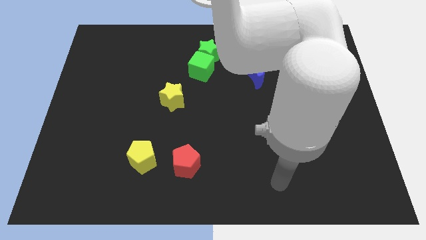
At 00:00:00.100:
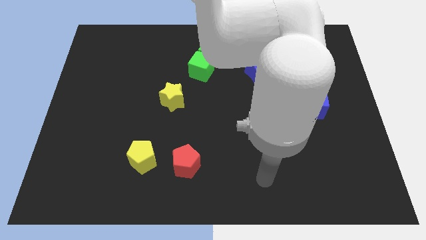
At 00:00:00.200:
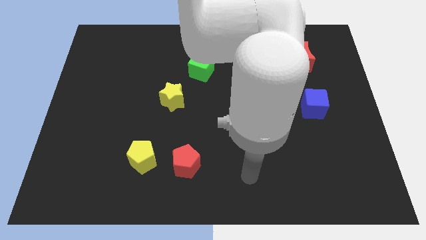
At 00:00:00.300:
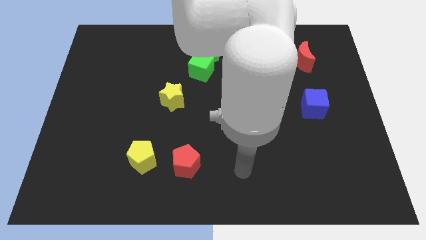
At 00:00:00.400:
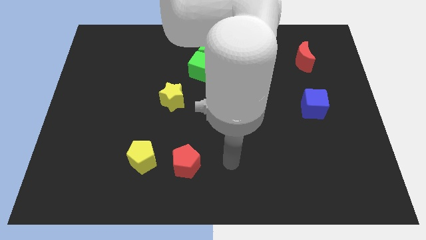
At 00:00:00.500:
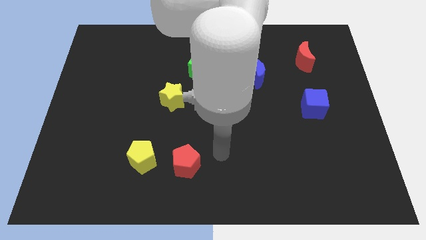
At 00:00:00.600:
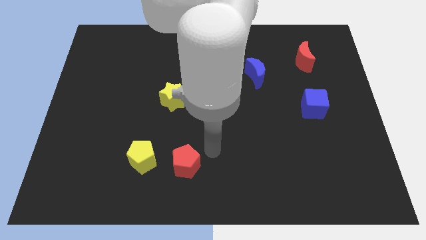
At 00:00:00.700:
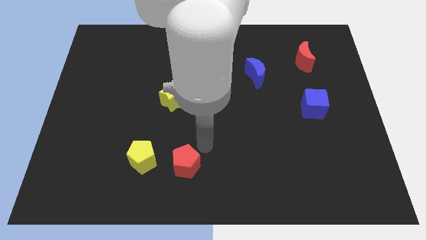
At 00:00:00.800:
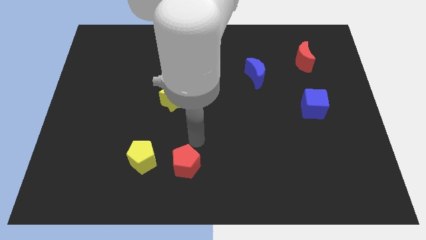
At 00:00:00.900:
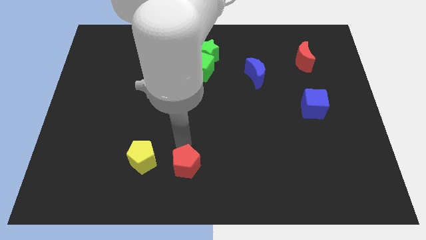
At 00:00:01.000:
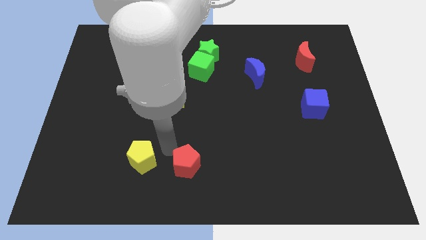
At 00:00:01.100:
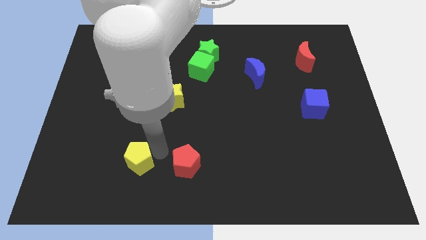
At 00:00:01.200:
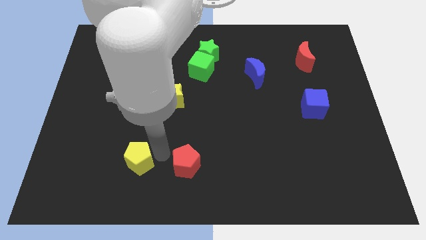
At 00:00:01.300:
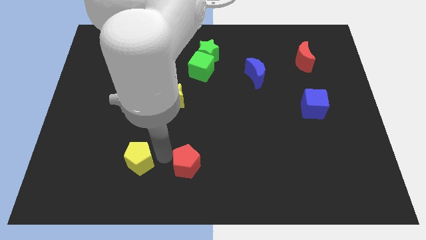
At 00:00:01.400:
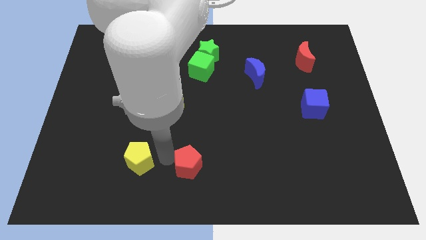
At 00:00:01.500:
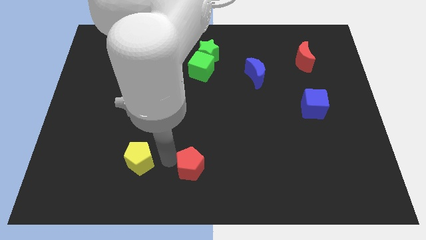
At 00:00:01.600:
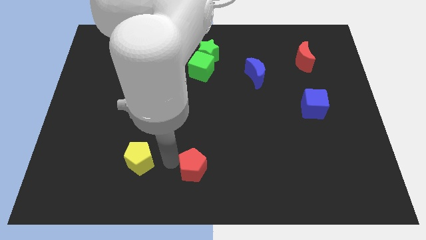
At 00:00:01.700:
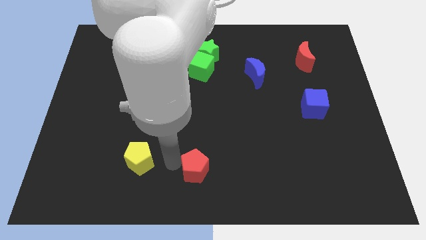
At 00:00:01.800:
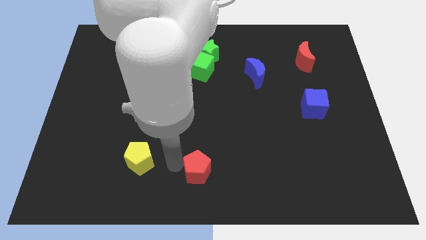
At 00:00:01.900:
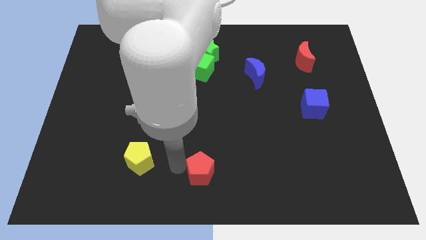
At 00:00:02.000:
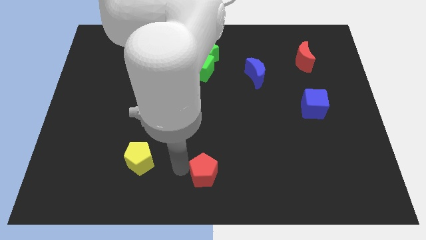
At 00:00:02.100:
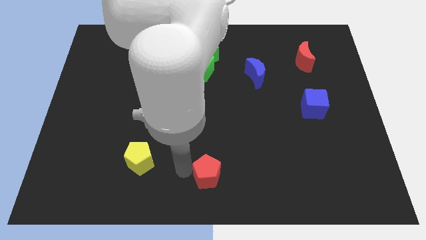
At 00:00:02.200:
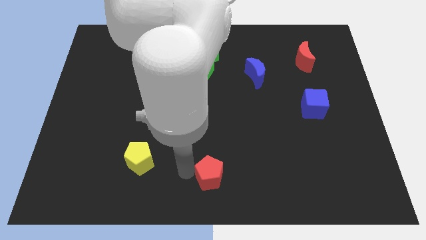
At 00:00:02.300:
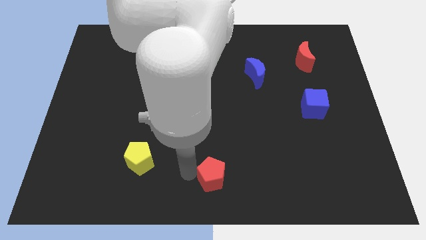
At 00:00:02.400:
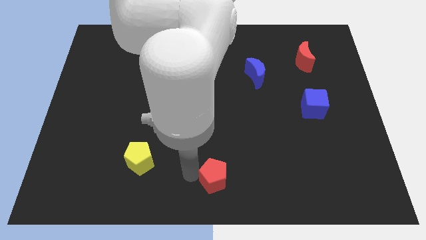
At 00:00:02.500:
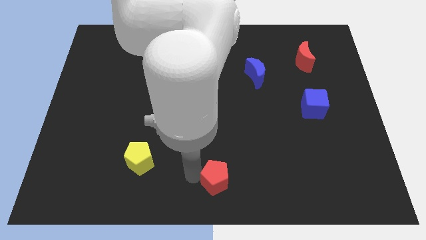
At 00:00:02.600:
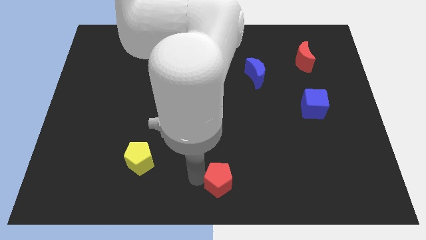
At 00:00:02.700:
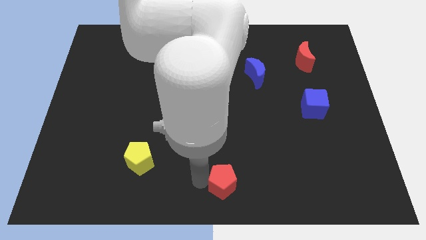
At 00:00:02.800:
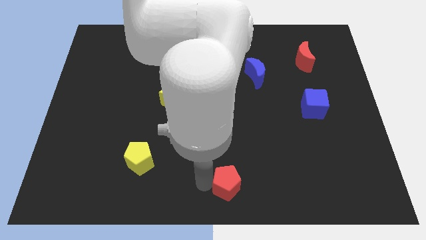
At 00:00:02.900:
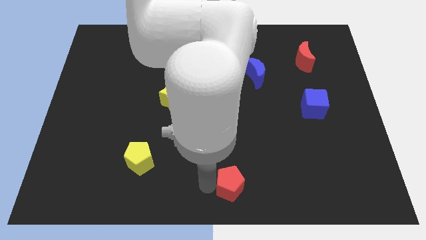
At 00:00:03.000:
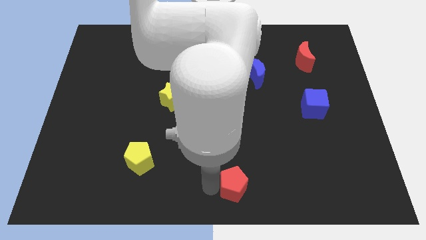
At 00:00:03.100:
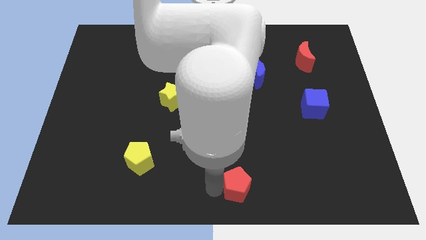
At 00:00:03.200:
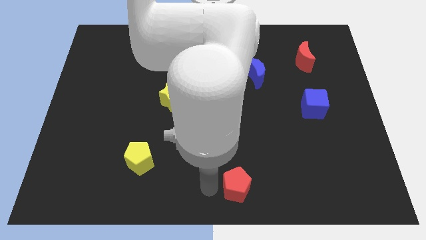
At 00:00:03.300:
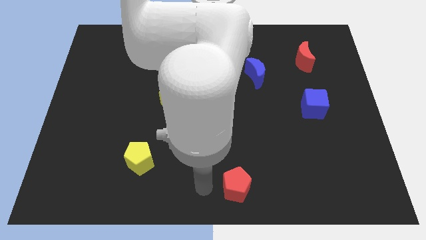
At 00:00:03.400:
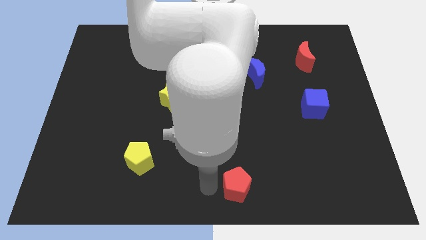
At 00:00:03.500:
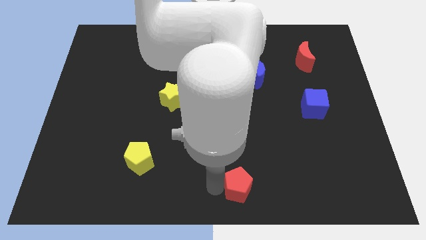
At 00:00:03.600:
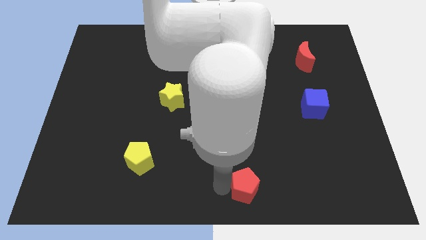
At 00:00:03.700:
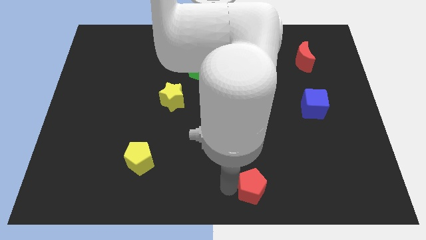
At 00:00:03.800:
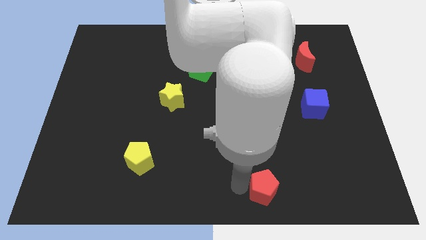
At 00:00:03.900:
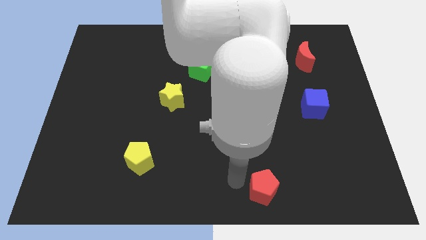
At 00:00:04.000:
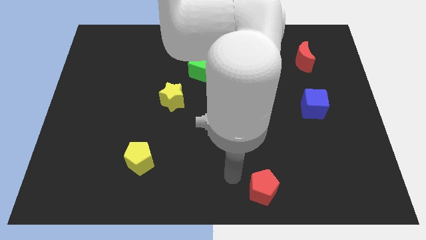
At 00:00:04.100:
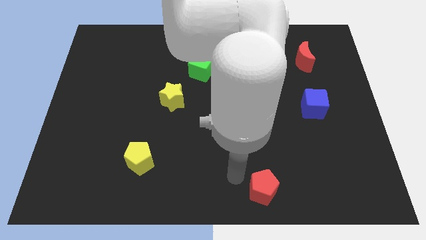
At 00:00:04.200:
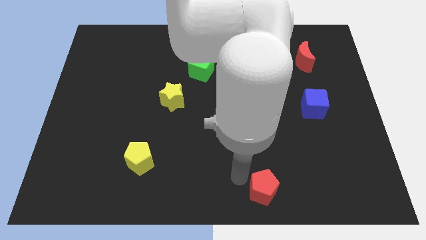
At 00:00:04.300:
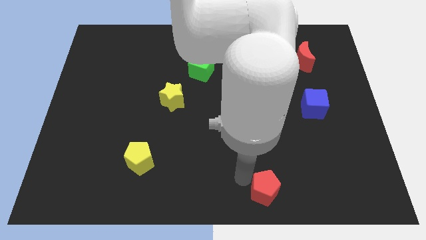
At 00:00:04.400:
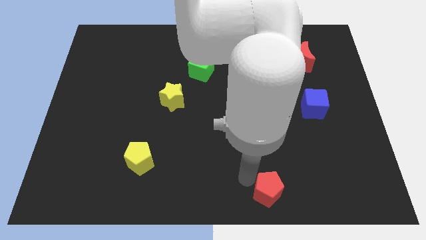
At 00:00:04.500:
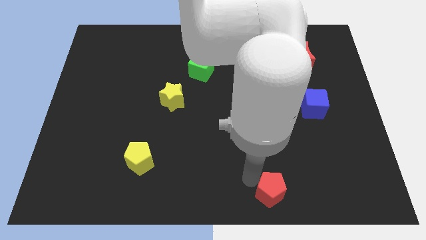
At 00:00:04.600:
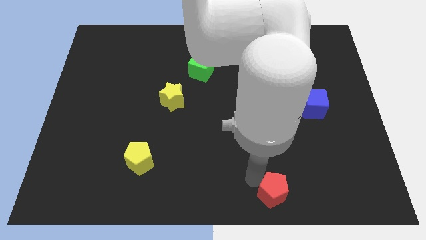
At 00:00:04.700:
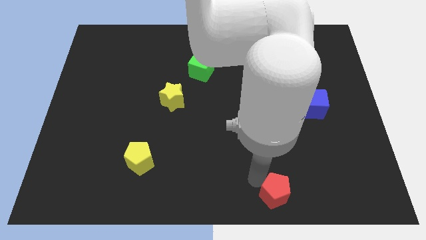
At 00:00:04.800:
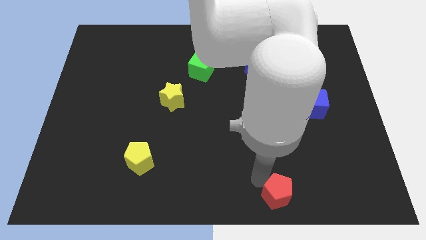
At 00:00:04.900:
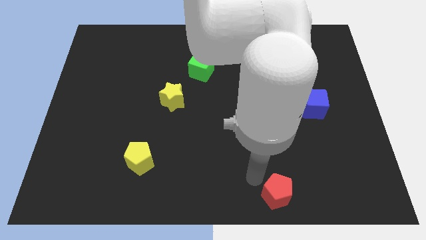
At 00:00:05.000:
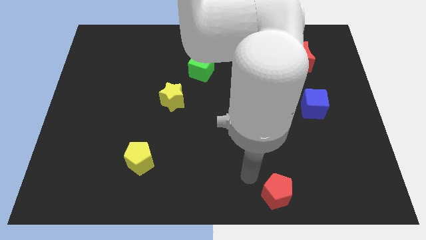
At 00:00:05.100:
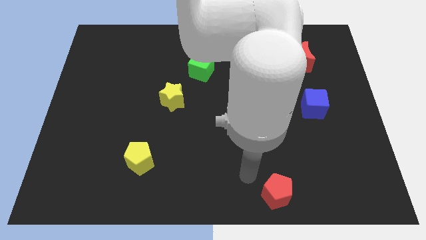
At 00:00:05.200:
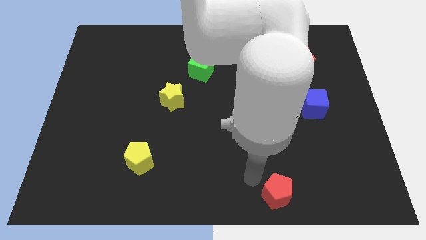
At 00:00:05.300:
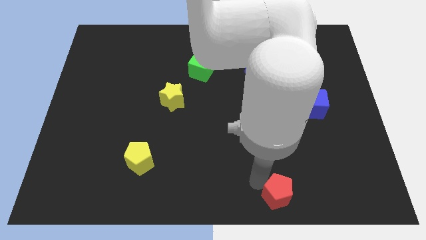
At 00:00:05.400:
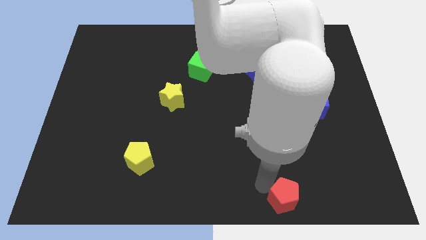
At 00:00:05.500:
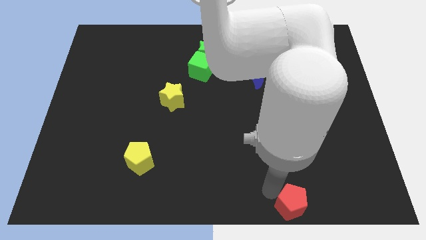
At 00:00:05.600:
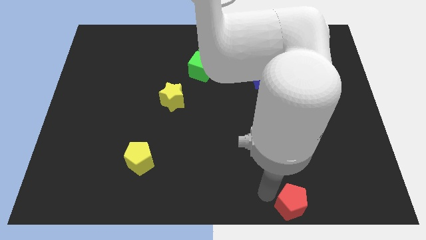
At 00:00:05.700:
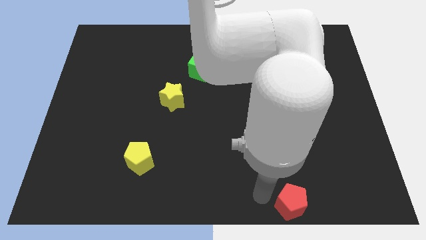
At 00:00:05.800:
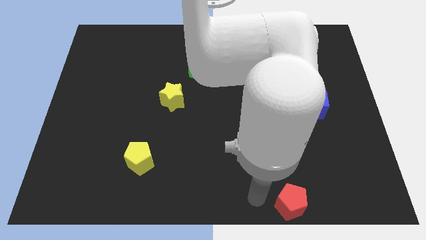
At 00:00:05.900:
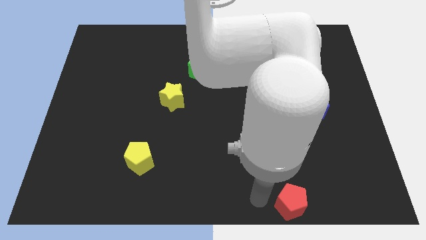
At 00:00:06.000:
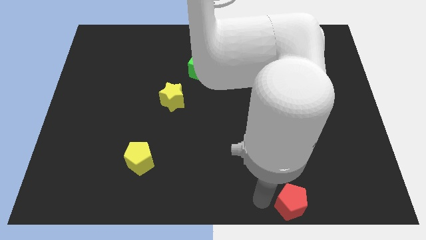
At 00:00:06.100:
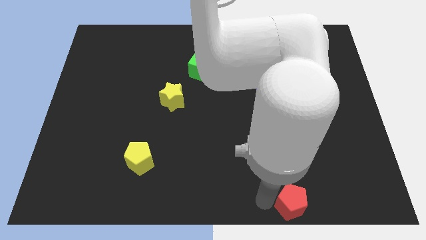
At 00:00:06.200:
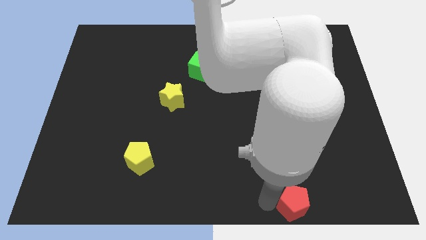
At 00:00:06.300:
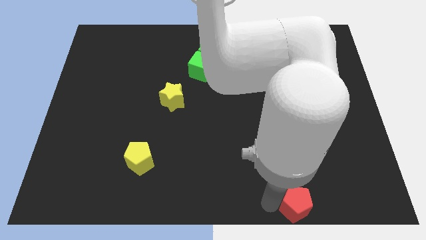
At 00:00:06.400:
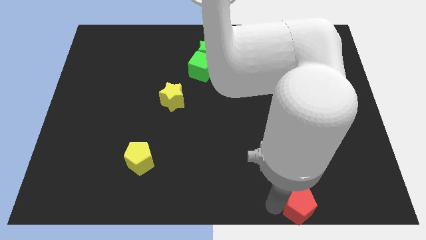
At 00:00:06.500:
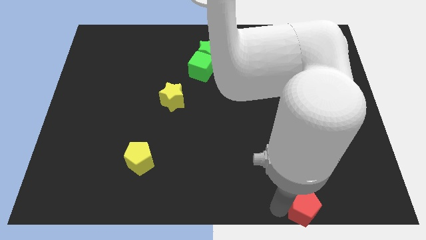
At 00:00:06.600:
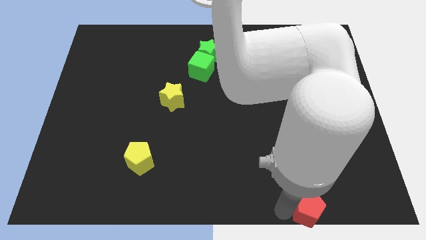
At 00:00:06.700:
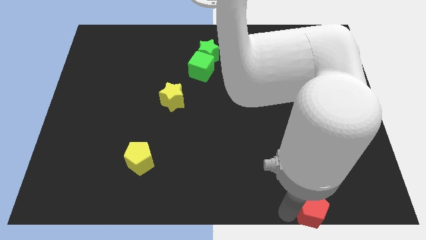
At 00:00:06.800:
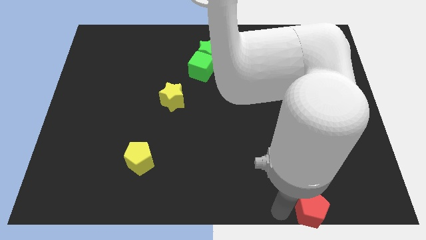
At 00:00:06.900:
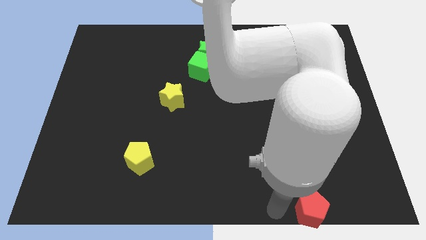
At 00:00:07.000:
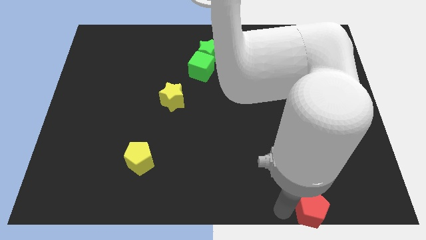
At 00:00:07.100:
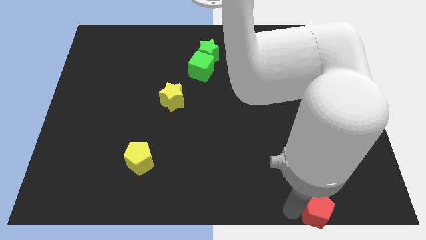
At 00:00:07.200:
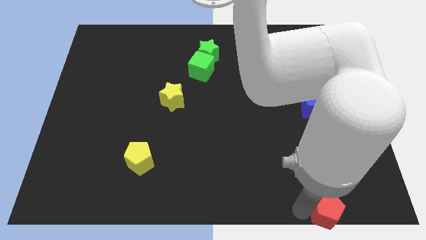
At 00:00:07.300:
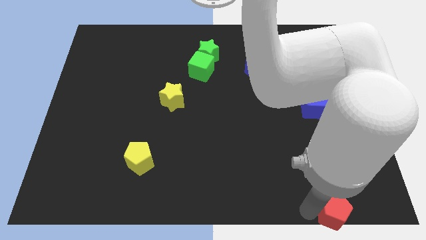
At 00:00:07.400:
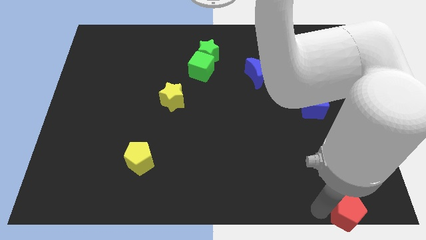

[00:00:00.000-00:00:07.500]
slide the red pentagon to the bottom right of the board
